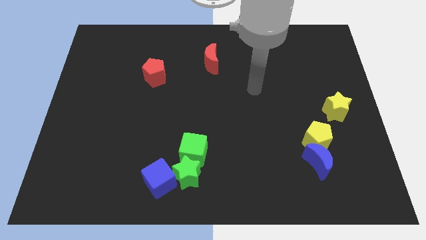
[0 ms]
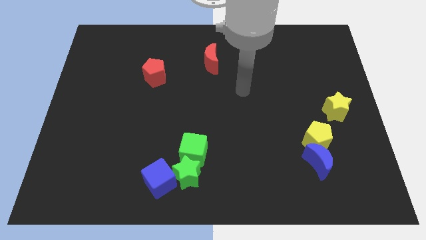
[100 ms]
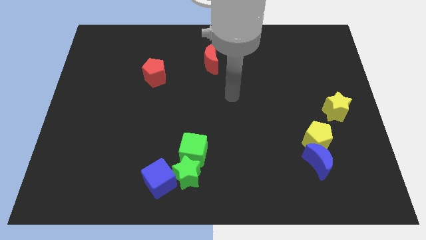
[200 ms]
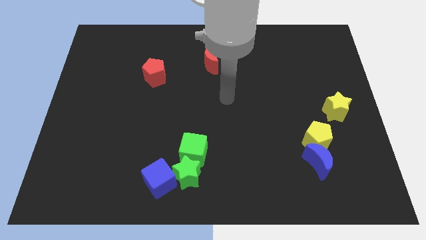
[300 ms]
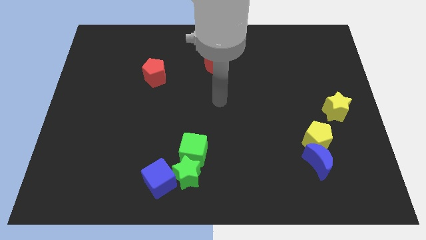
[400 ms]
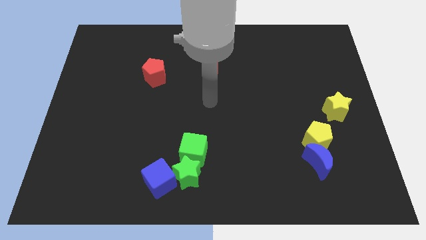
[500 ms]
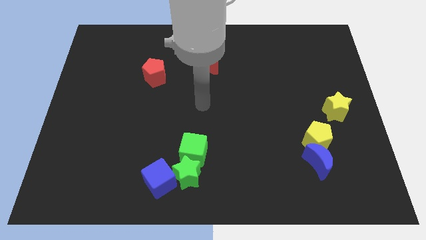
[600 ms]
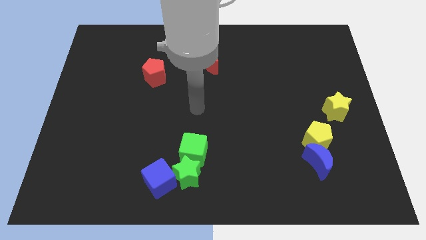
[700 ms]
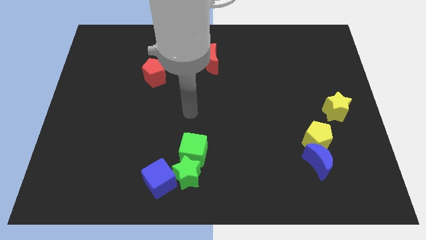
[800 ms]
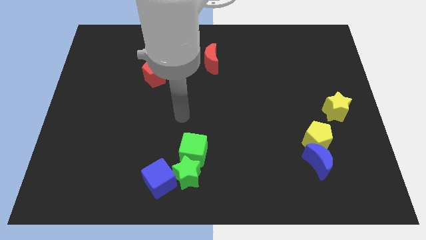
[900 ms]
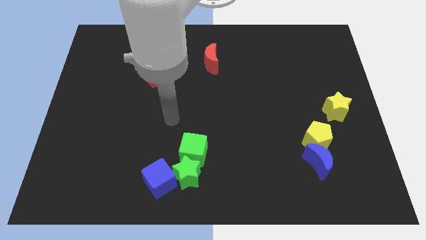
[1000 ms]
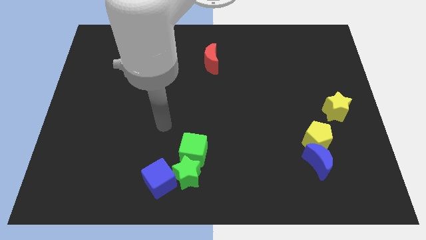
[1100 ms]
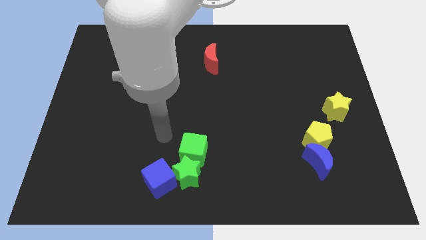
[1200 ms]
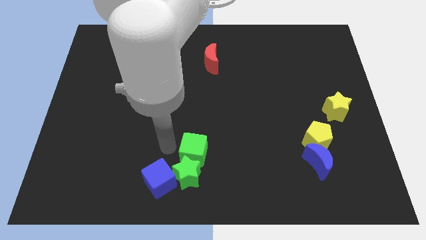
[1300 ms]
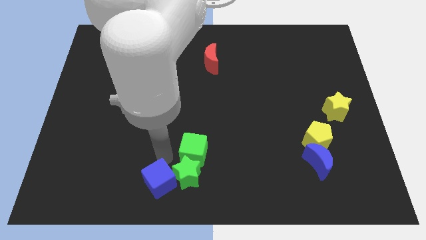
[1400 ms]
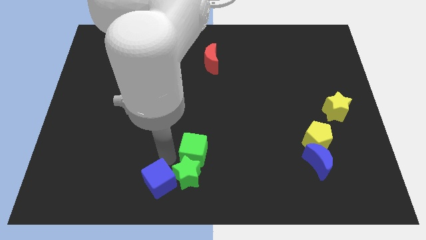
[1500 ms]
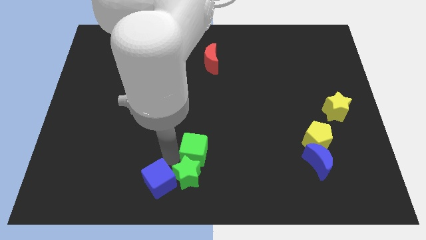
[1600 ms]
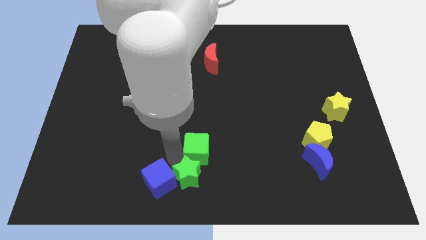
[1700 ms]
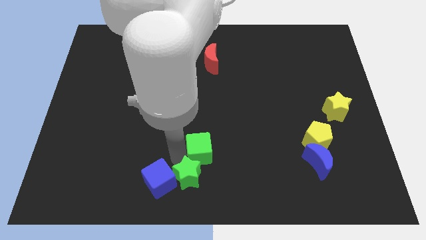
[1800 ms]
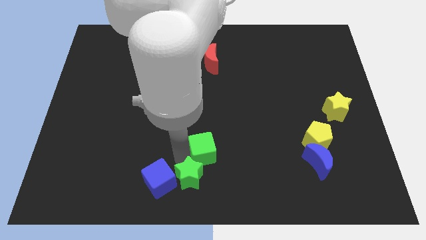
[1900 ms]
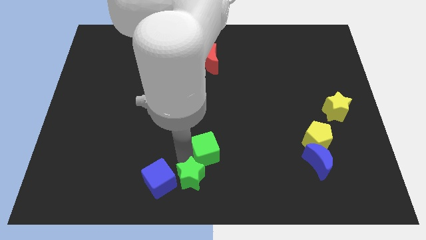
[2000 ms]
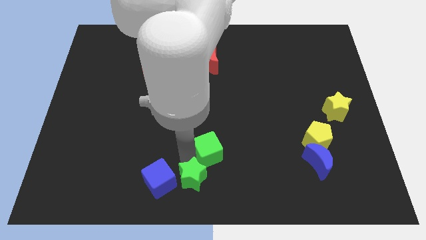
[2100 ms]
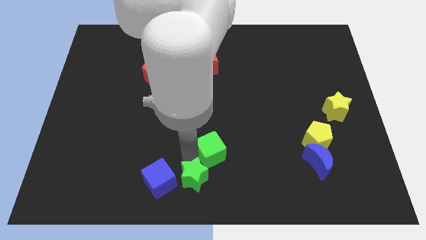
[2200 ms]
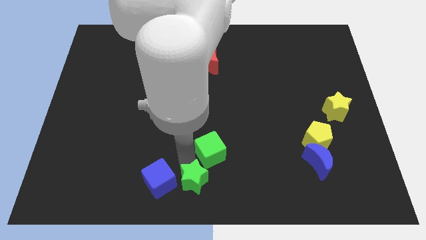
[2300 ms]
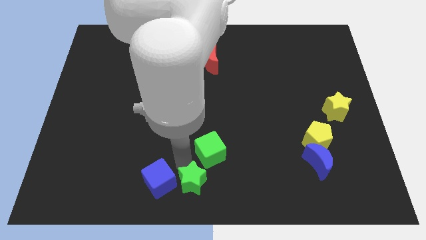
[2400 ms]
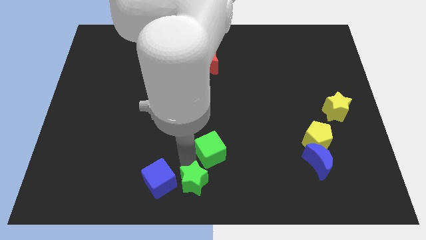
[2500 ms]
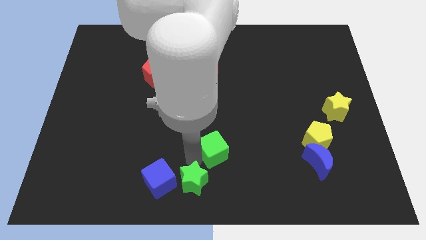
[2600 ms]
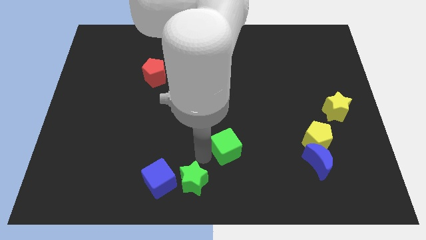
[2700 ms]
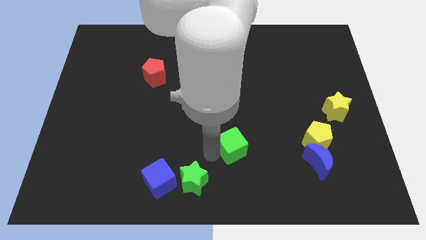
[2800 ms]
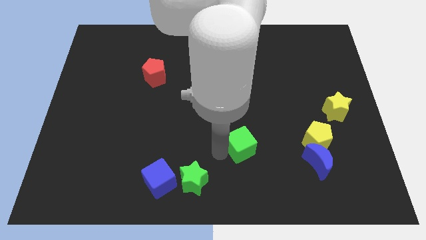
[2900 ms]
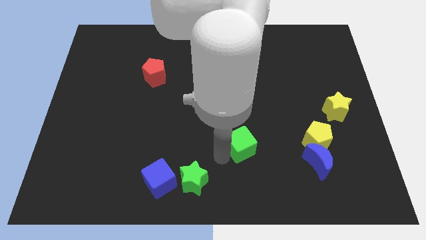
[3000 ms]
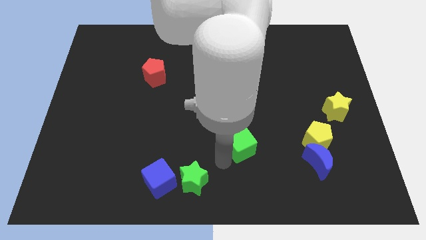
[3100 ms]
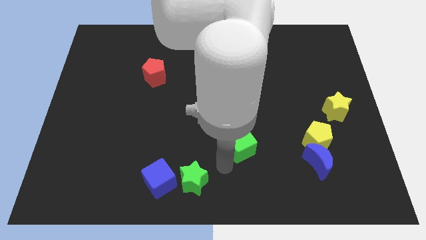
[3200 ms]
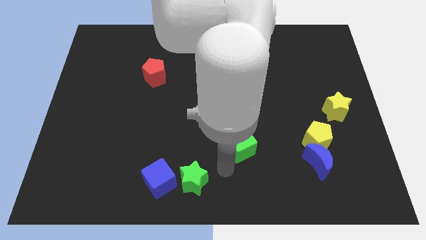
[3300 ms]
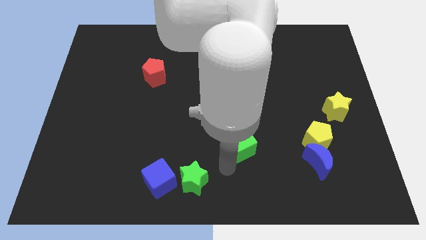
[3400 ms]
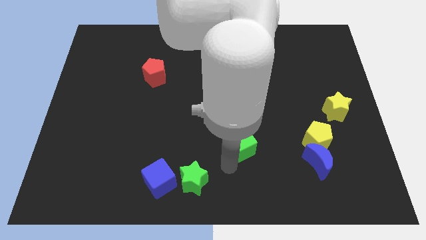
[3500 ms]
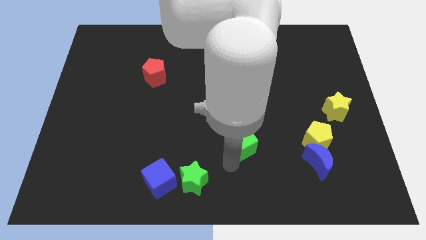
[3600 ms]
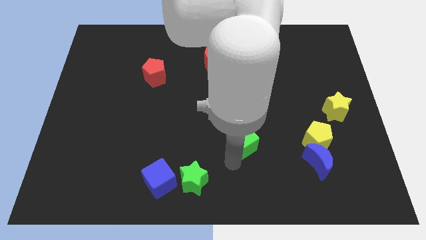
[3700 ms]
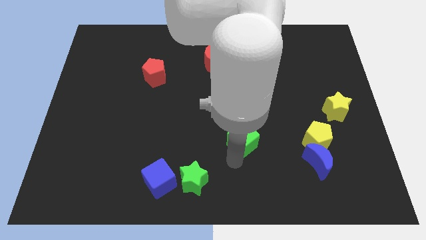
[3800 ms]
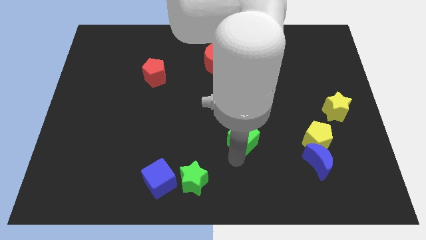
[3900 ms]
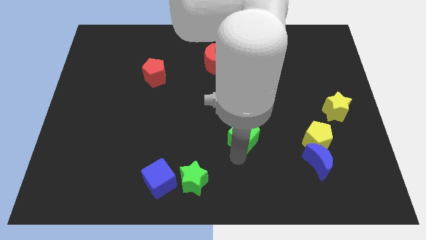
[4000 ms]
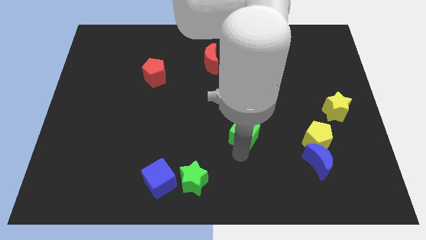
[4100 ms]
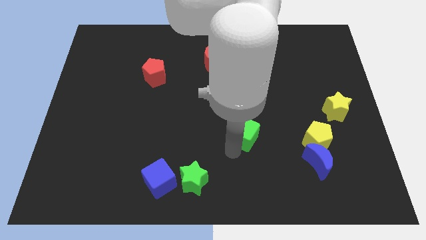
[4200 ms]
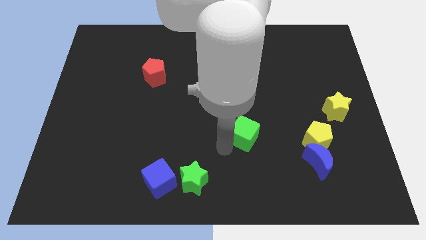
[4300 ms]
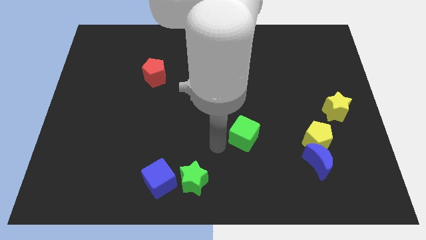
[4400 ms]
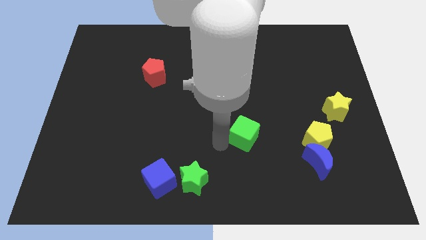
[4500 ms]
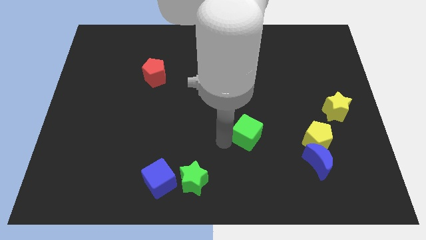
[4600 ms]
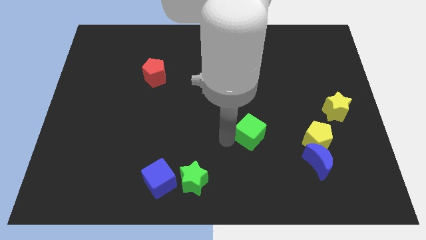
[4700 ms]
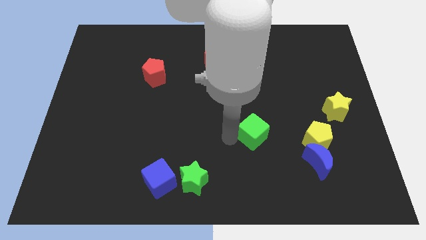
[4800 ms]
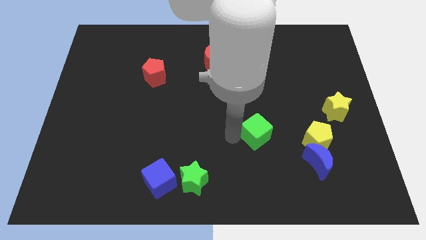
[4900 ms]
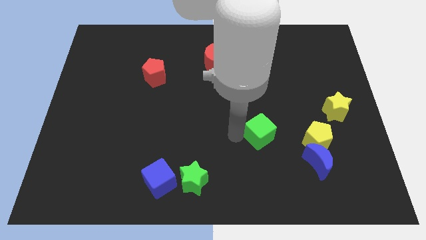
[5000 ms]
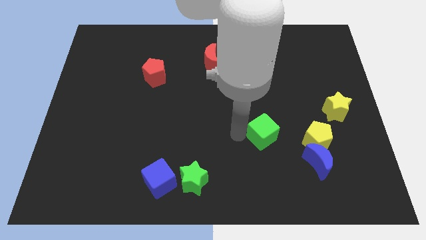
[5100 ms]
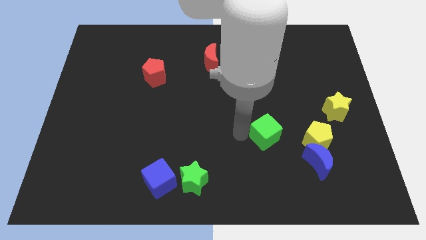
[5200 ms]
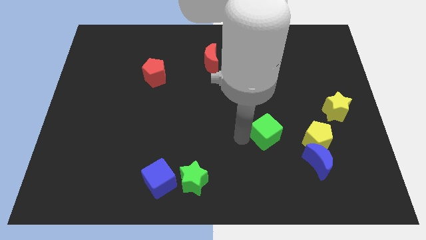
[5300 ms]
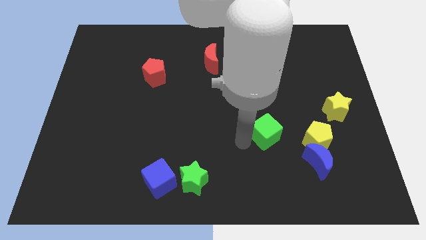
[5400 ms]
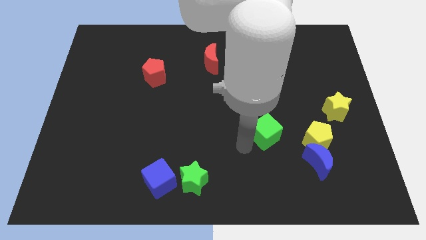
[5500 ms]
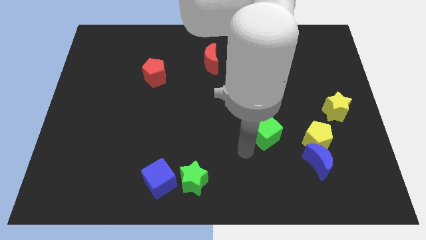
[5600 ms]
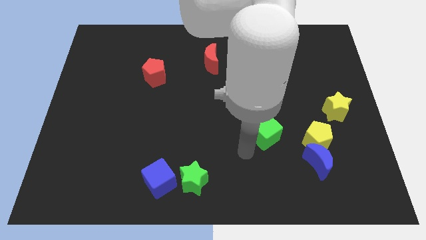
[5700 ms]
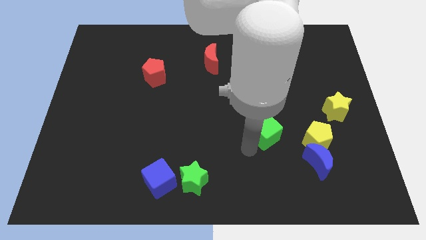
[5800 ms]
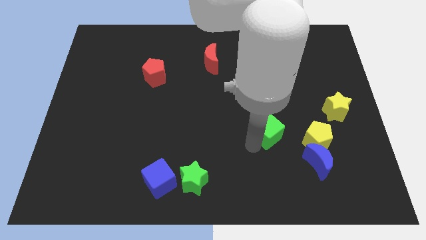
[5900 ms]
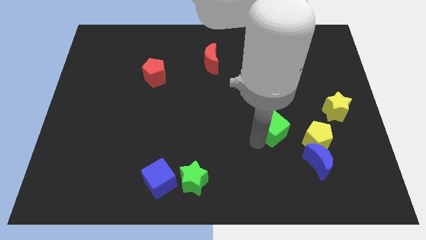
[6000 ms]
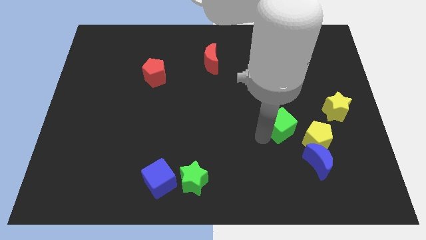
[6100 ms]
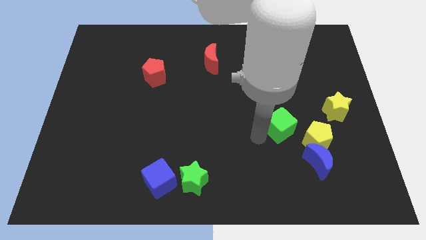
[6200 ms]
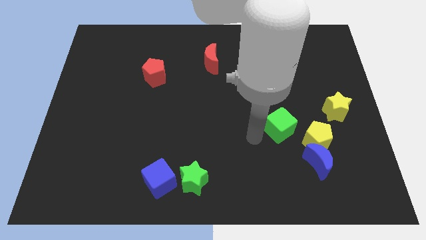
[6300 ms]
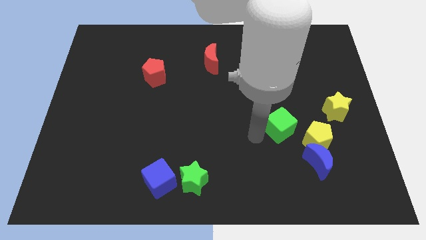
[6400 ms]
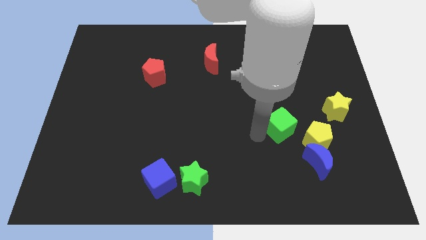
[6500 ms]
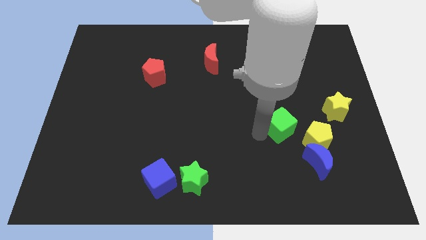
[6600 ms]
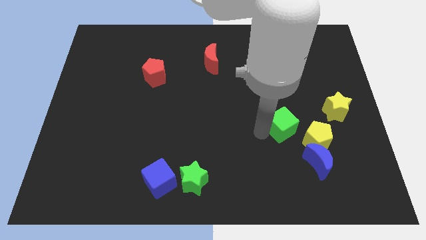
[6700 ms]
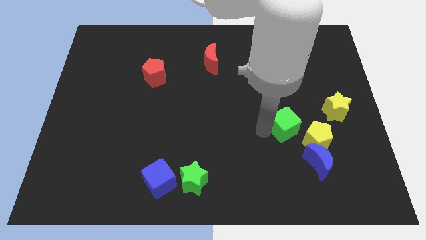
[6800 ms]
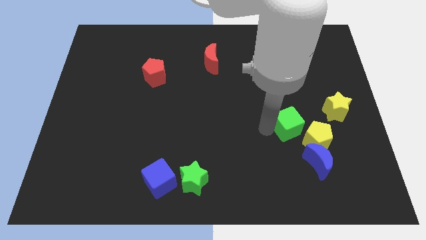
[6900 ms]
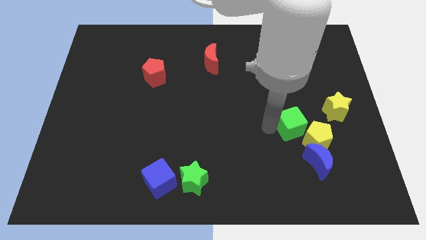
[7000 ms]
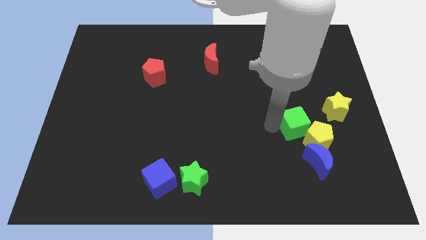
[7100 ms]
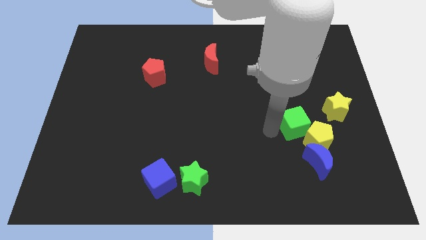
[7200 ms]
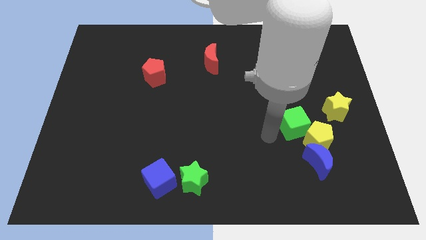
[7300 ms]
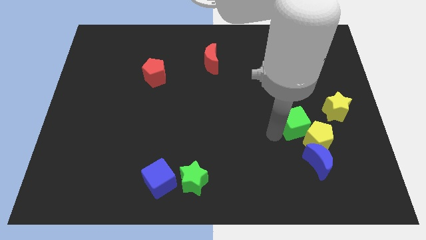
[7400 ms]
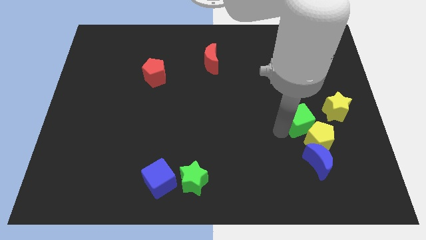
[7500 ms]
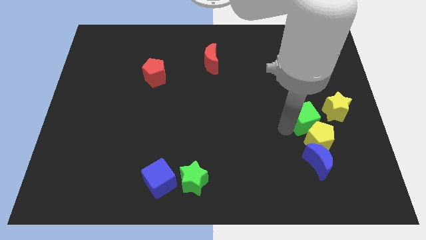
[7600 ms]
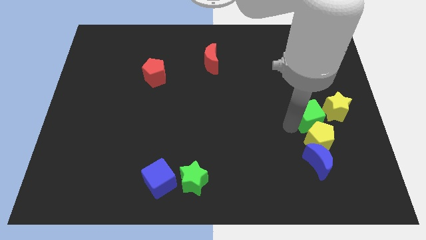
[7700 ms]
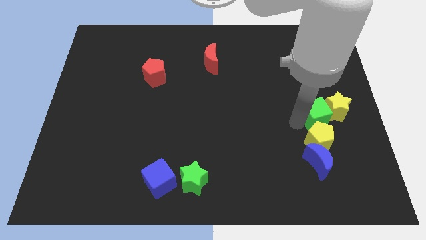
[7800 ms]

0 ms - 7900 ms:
move the green cube to the yellow star
